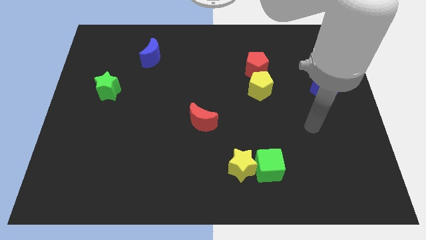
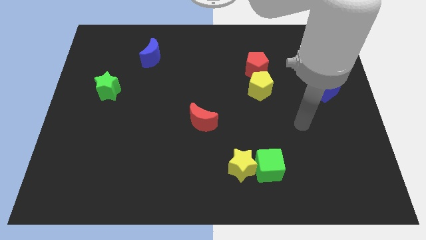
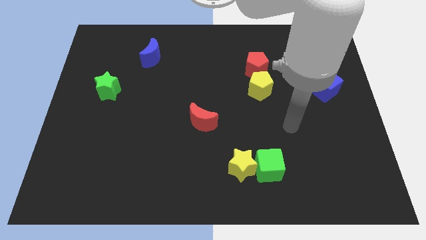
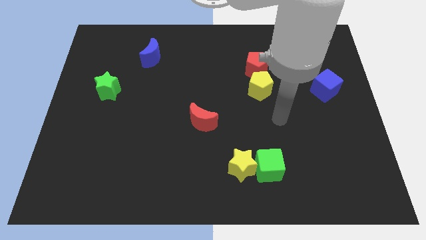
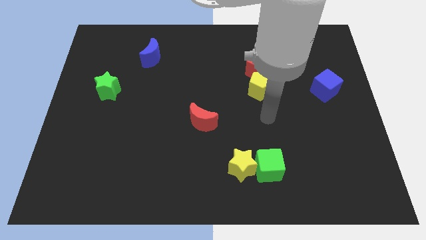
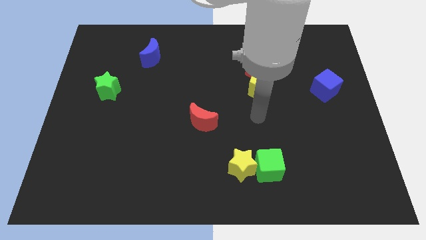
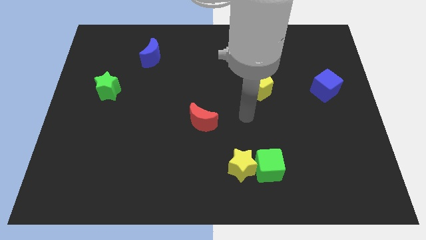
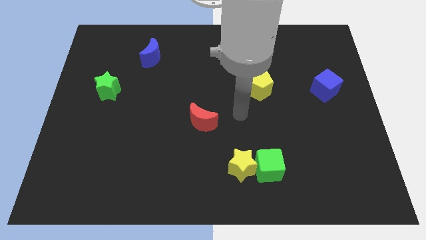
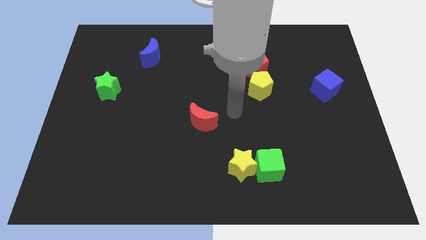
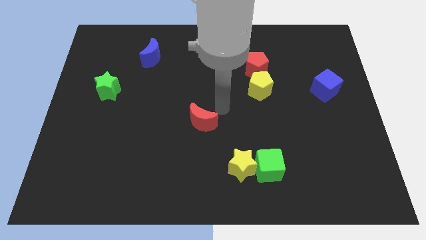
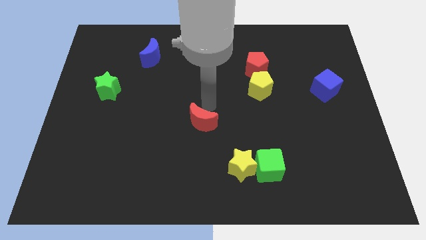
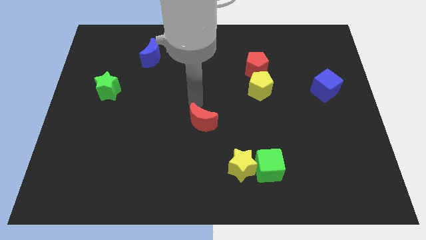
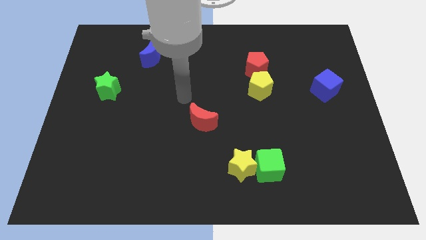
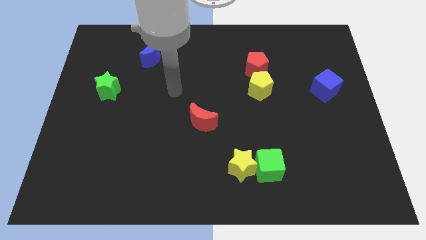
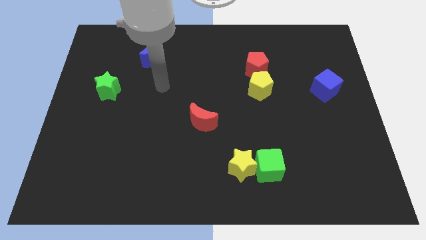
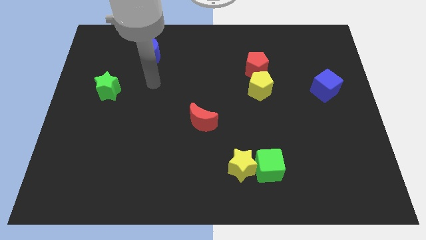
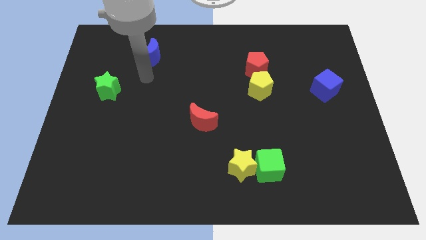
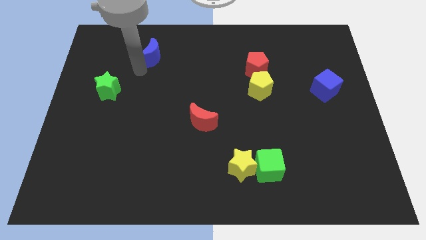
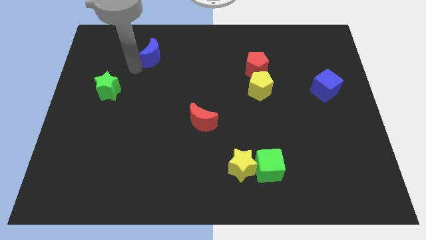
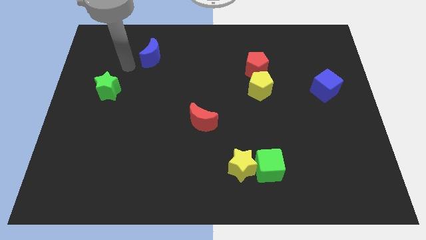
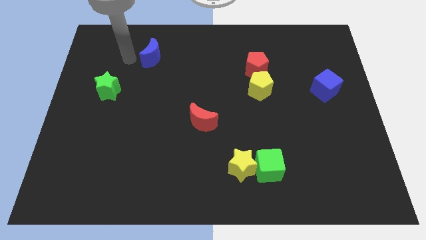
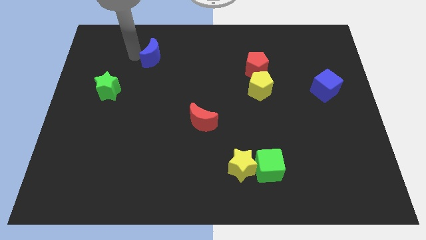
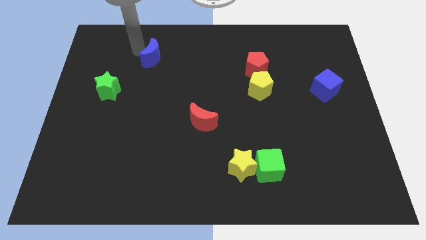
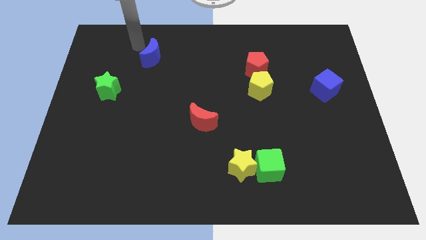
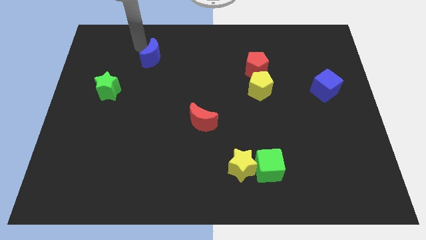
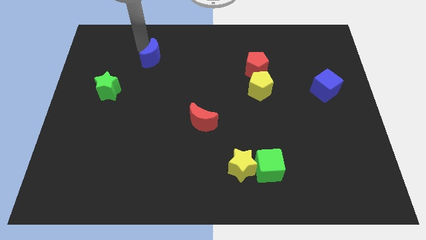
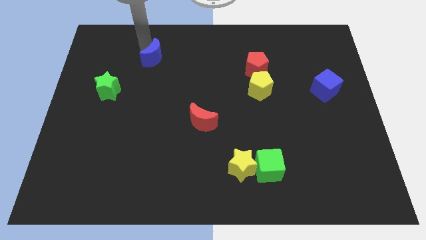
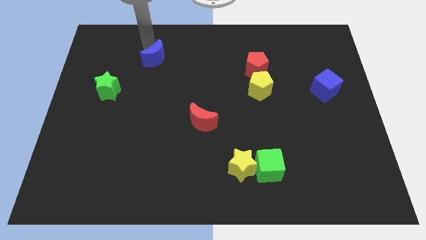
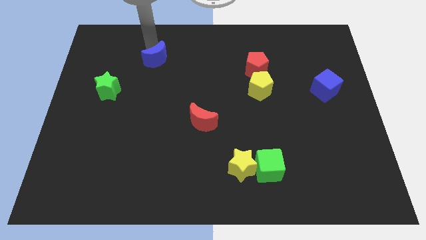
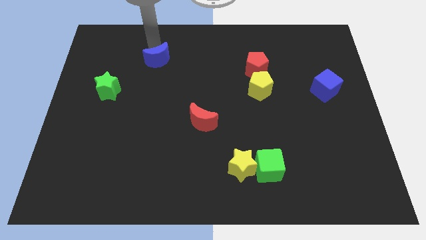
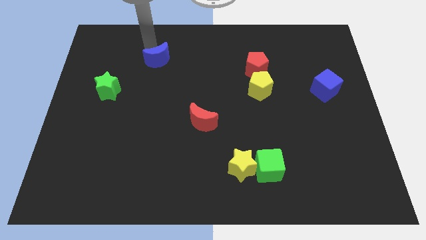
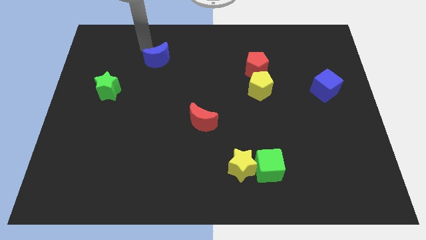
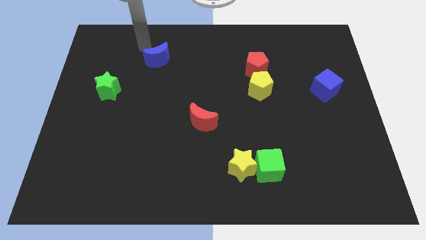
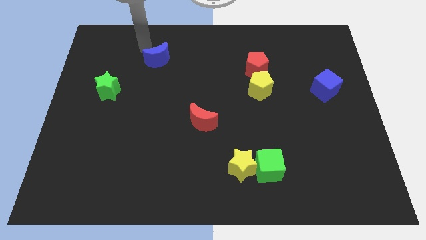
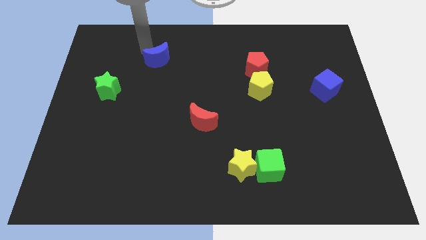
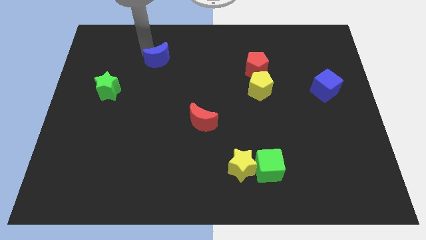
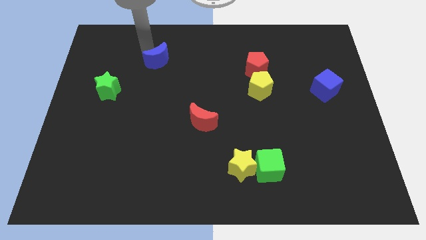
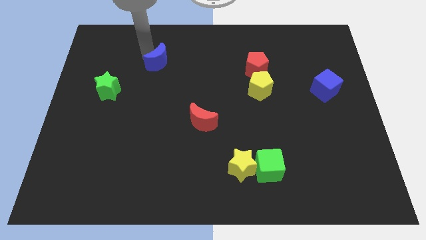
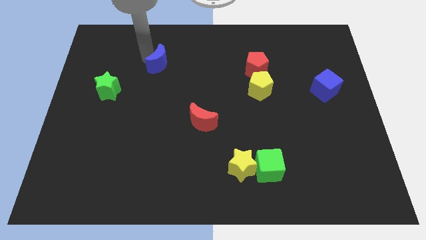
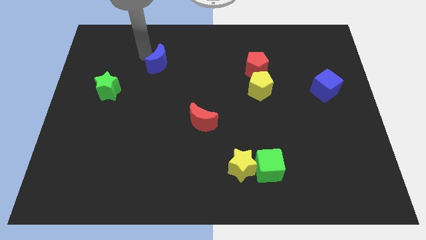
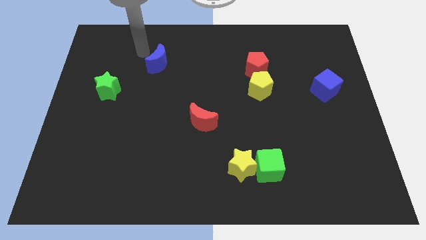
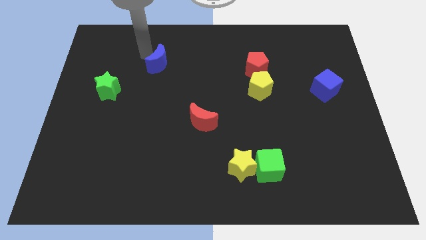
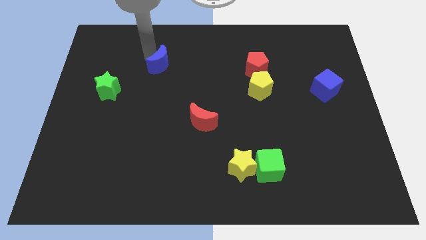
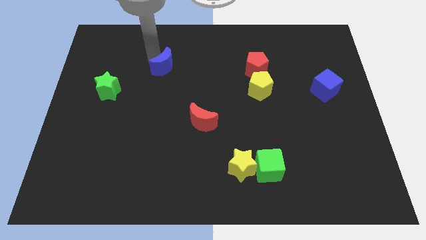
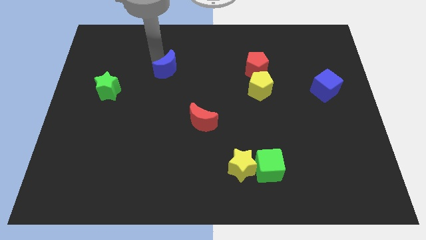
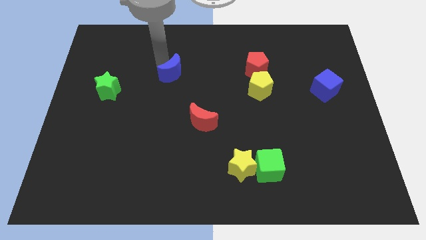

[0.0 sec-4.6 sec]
push the blue moon diagonally down and right a little bit

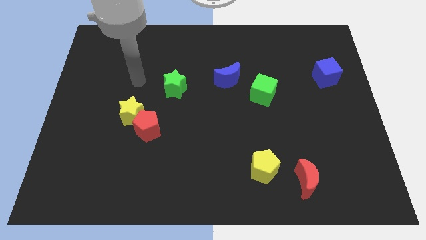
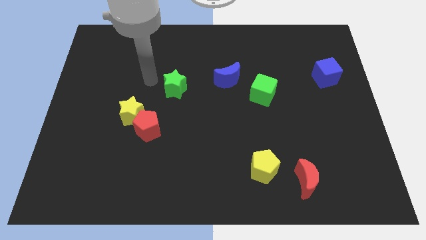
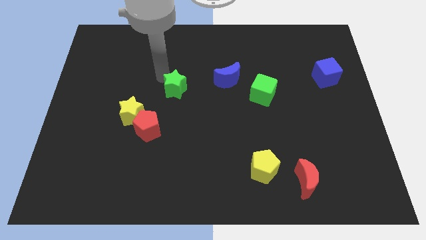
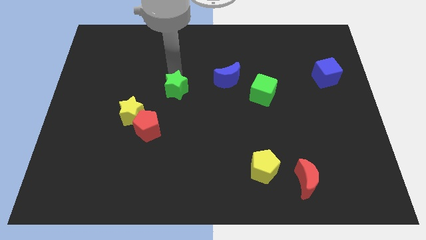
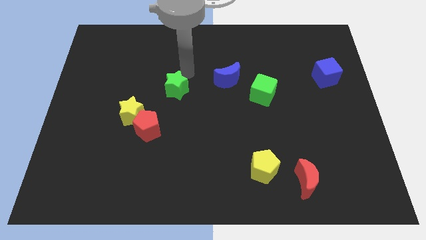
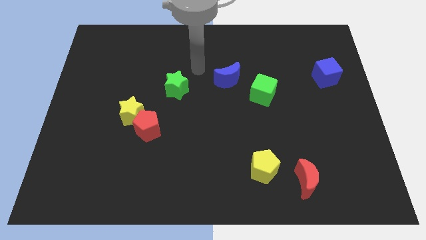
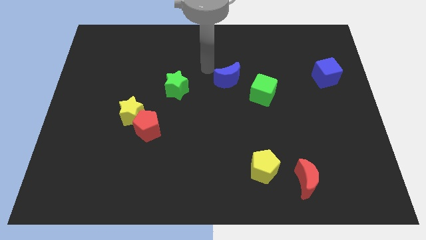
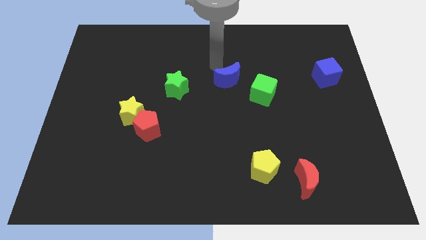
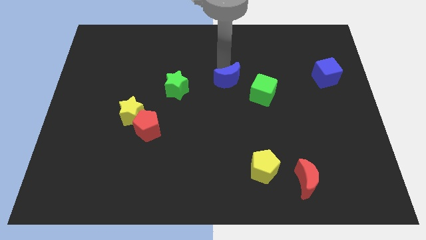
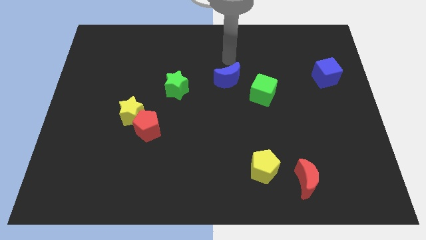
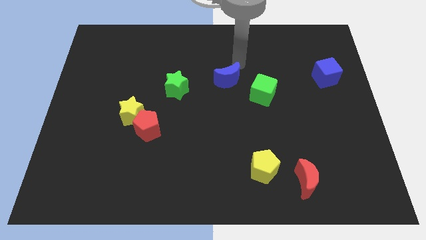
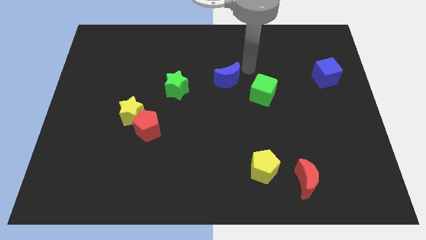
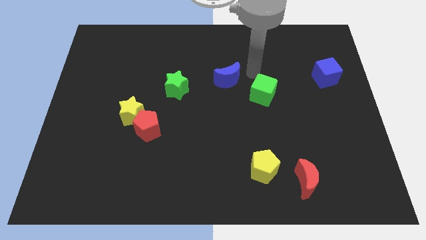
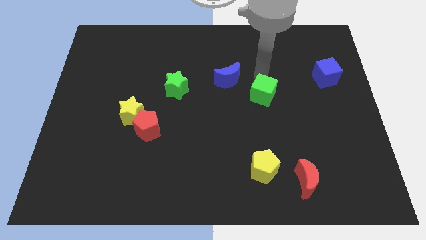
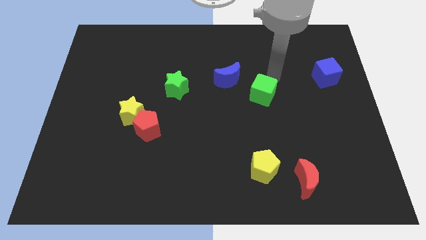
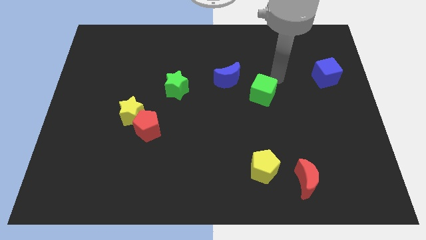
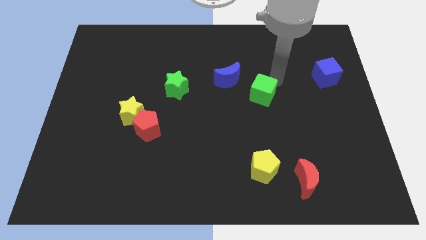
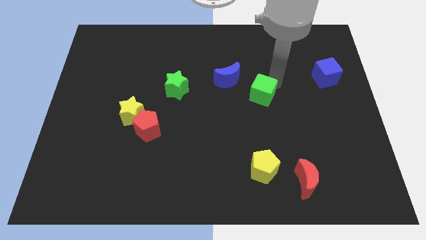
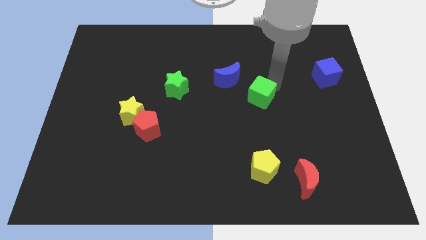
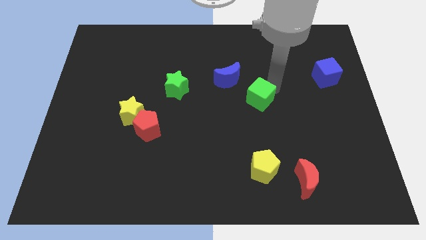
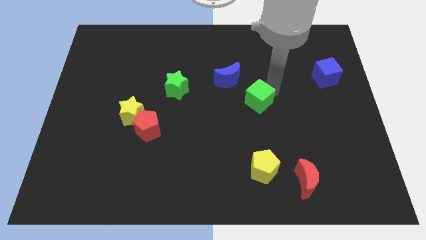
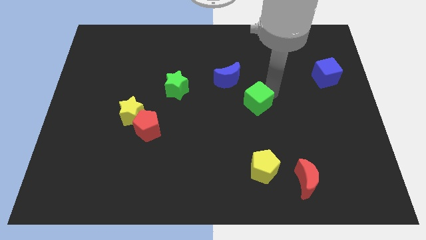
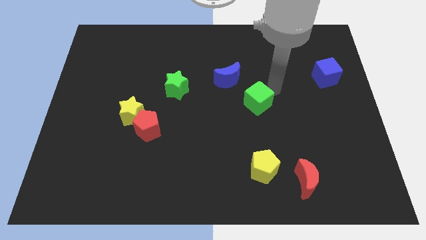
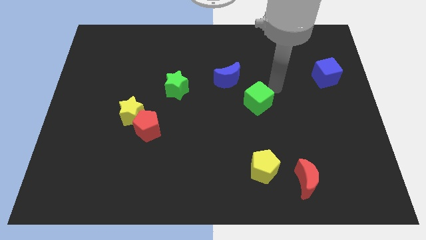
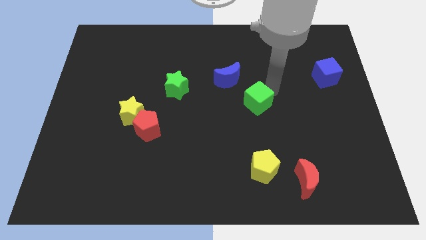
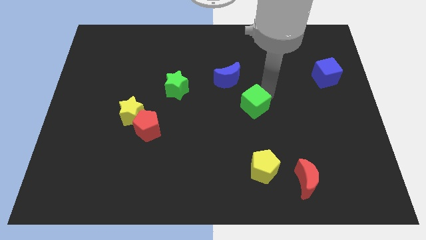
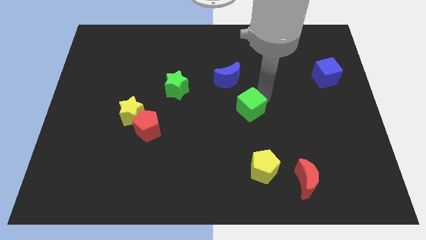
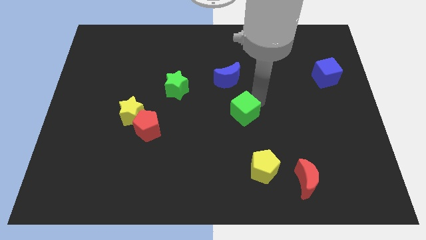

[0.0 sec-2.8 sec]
slide the green cube downwards and to the left diagonally a little

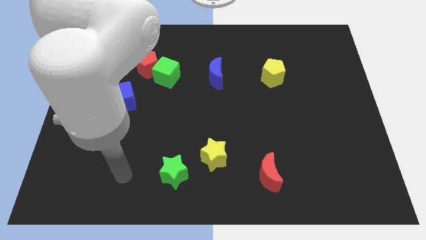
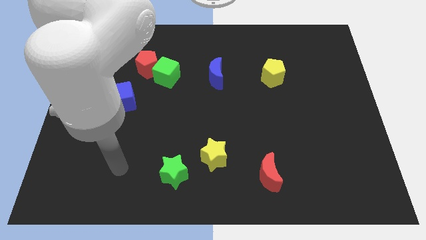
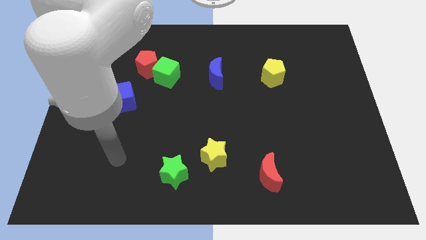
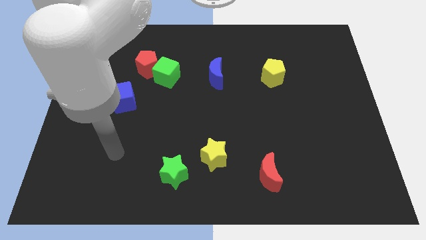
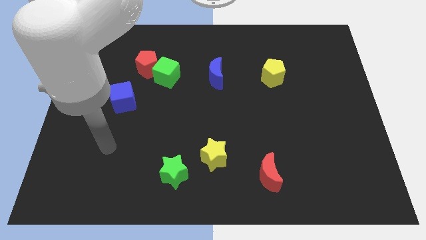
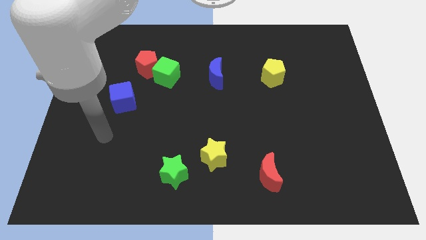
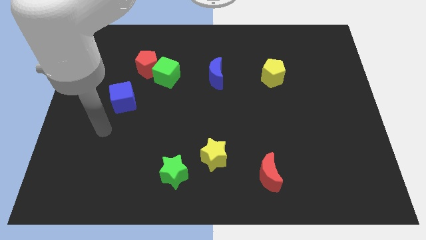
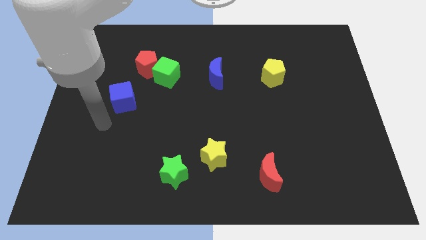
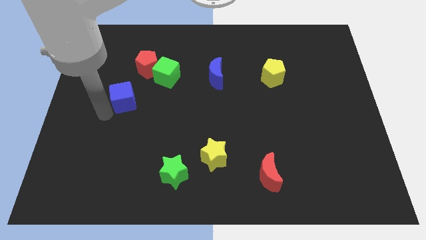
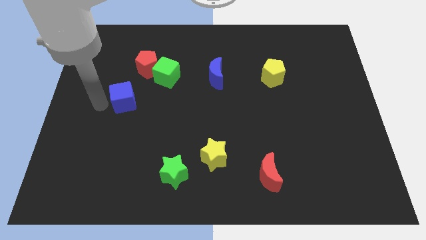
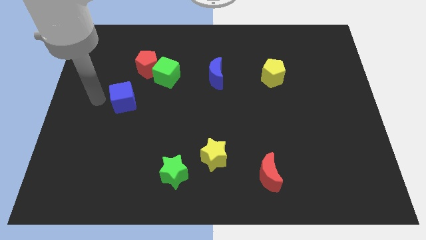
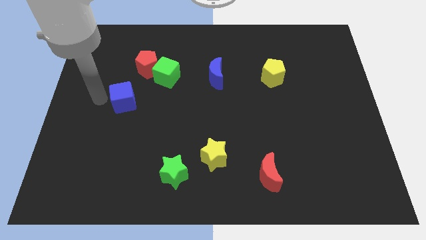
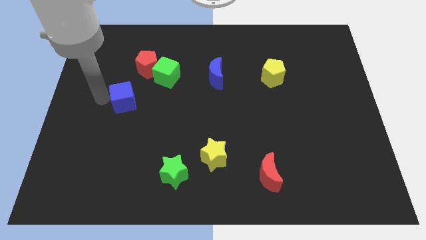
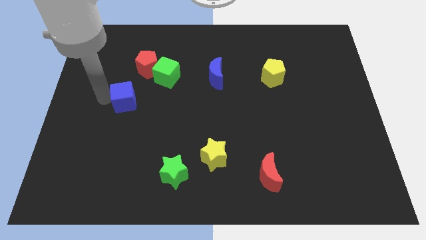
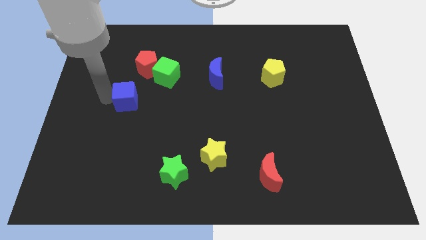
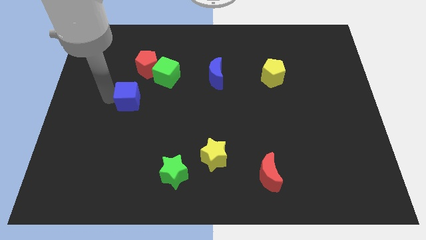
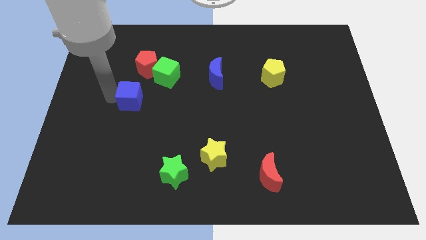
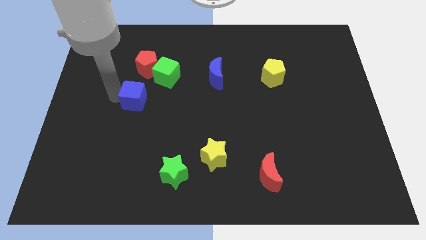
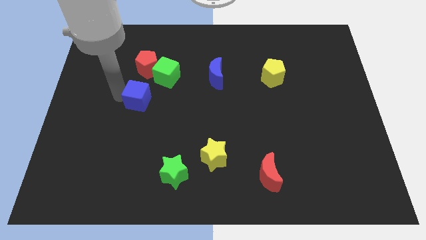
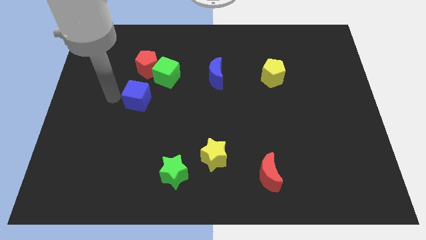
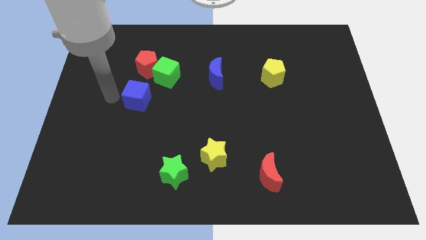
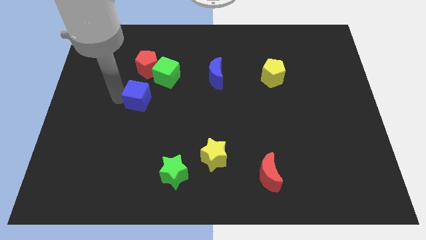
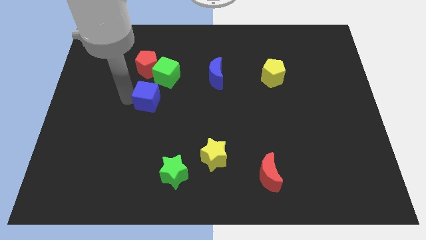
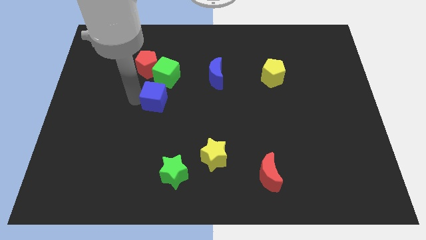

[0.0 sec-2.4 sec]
push the blue cube a little right
